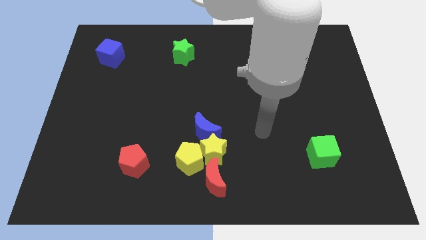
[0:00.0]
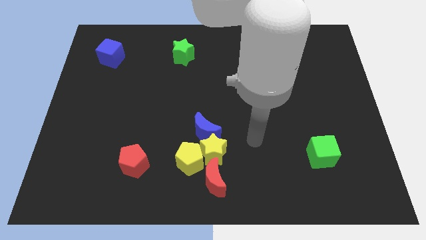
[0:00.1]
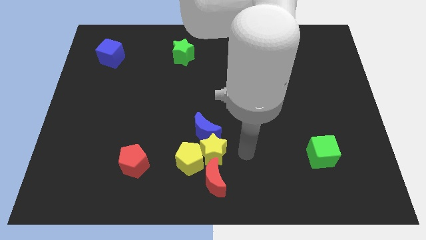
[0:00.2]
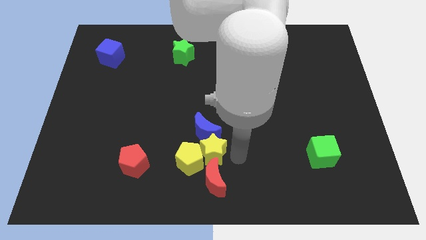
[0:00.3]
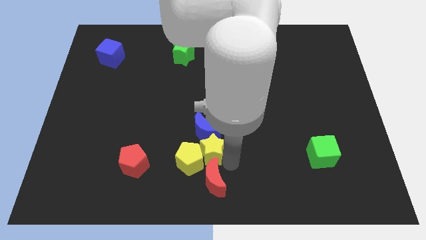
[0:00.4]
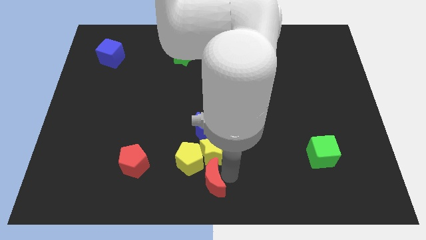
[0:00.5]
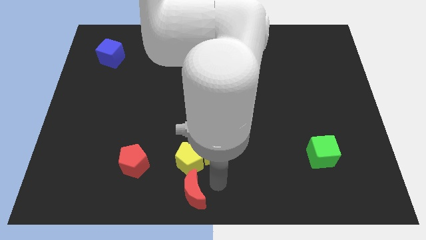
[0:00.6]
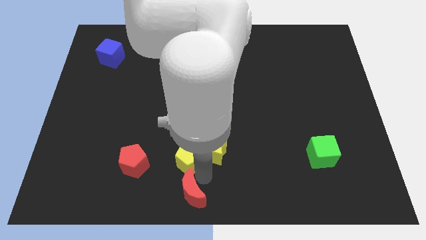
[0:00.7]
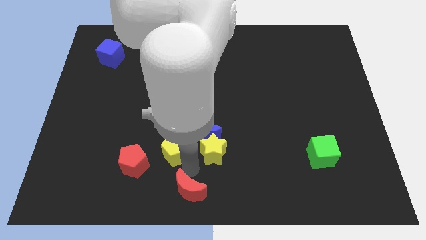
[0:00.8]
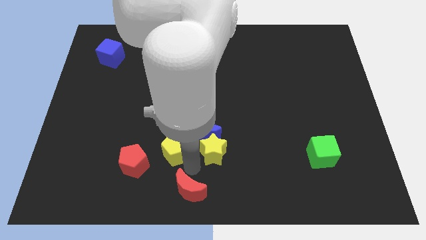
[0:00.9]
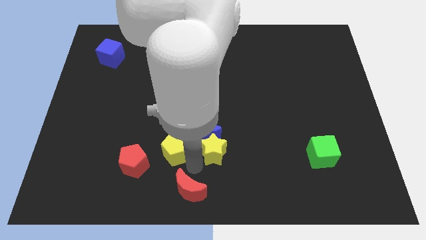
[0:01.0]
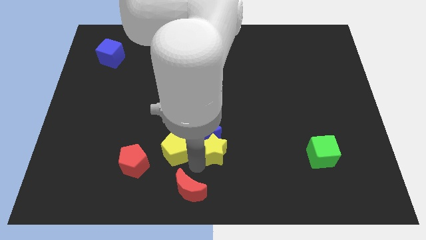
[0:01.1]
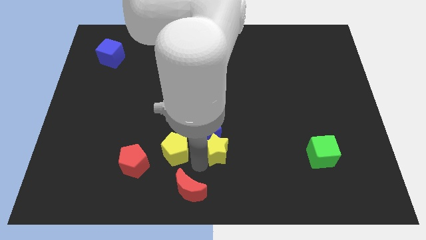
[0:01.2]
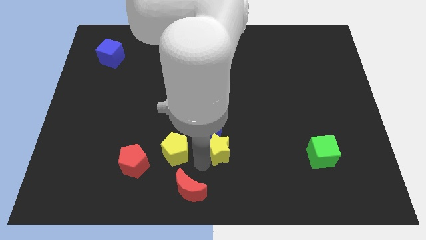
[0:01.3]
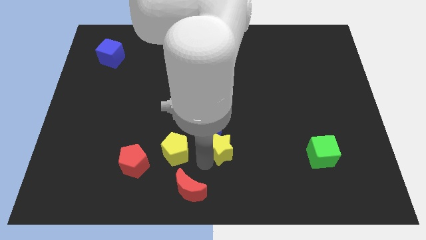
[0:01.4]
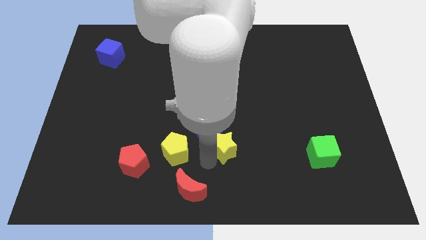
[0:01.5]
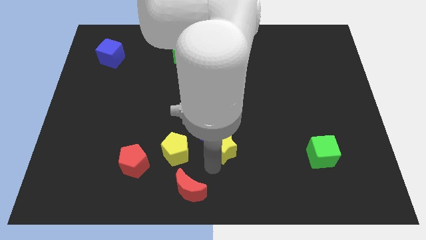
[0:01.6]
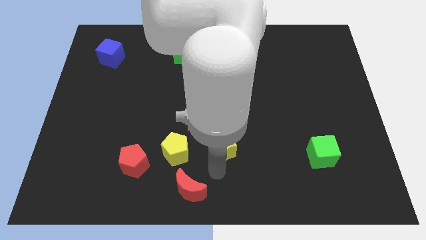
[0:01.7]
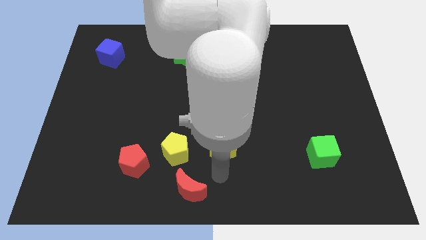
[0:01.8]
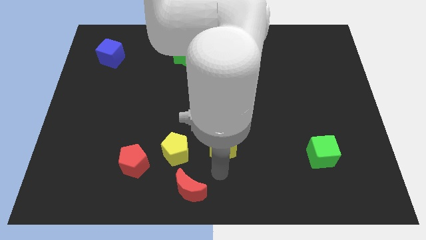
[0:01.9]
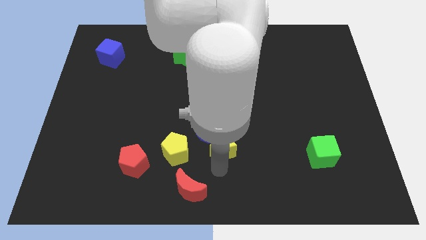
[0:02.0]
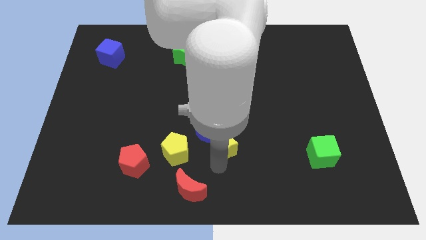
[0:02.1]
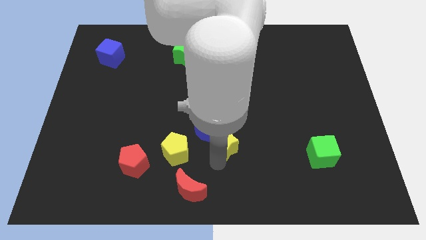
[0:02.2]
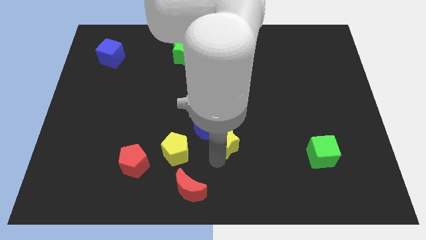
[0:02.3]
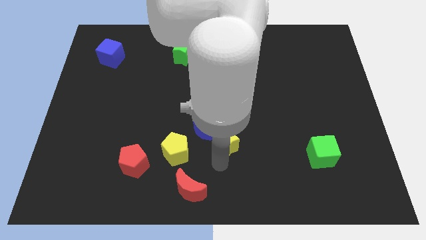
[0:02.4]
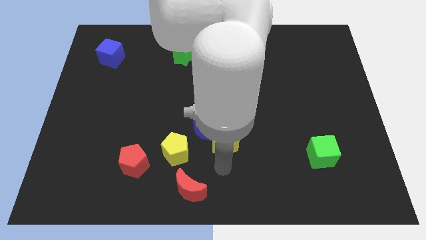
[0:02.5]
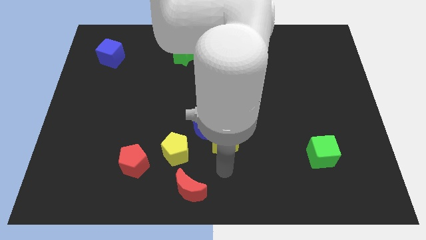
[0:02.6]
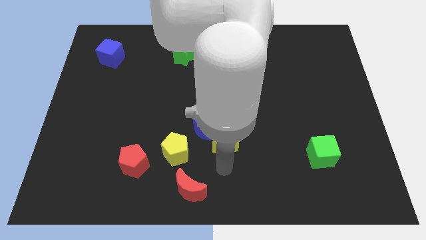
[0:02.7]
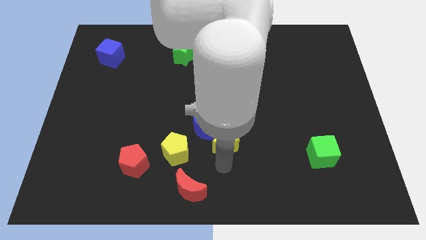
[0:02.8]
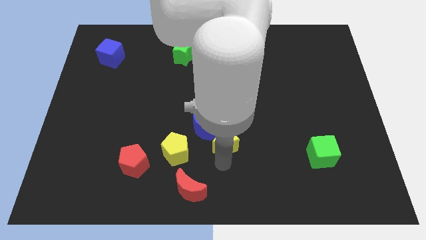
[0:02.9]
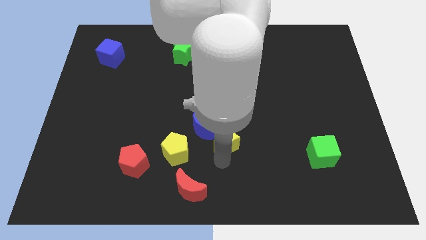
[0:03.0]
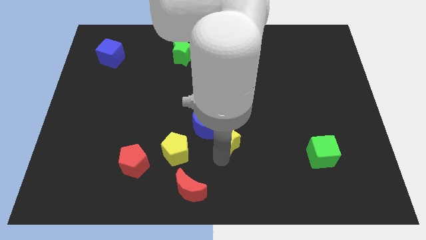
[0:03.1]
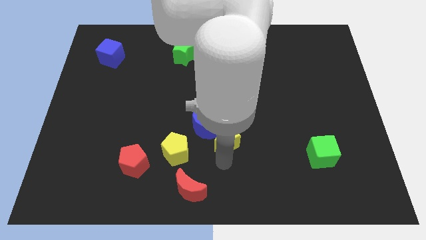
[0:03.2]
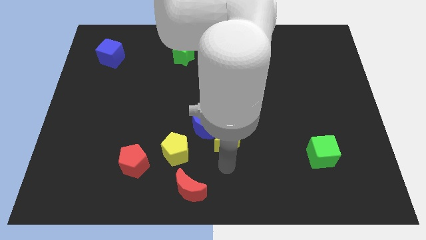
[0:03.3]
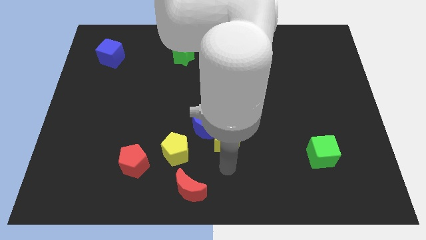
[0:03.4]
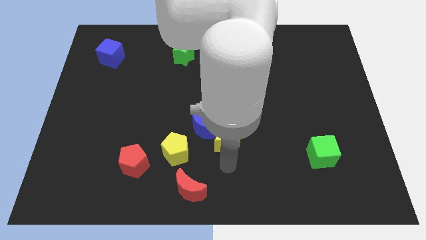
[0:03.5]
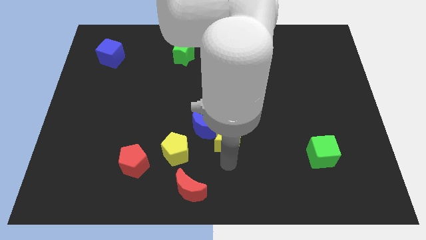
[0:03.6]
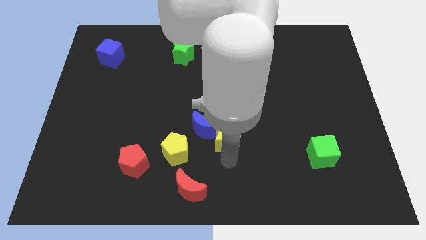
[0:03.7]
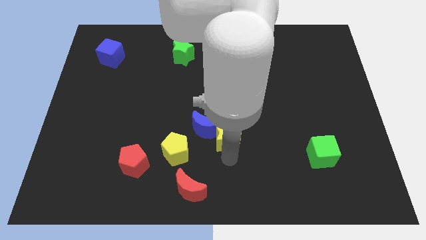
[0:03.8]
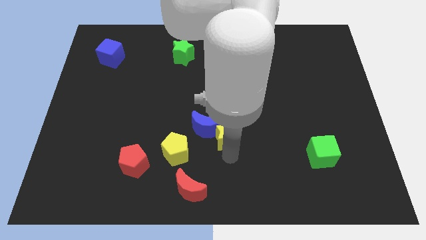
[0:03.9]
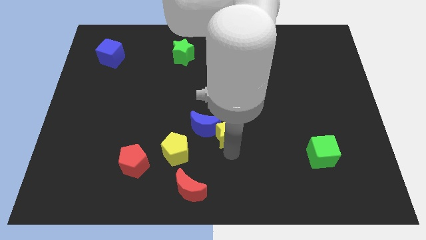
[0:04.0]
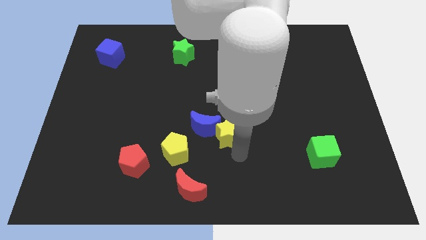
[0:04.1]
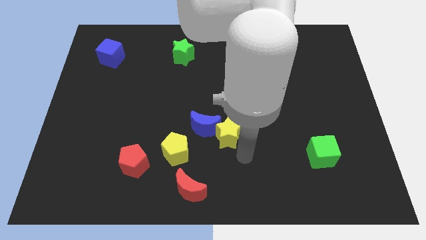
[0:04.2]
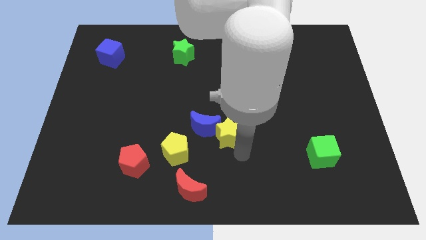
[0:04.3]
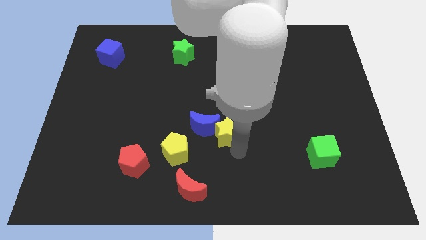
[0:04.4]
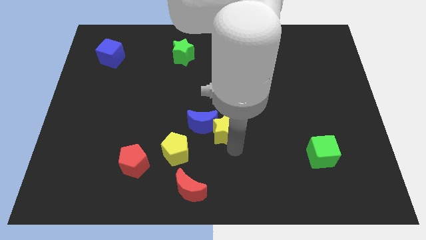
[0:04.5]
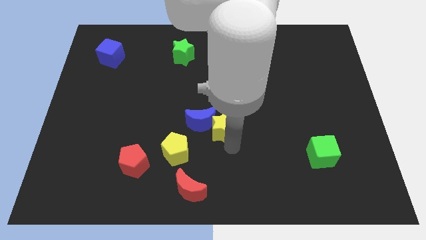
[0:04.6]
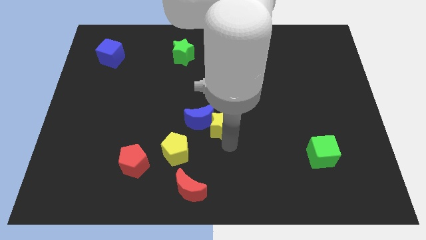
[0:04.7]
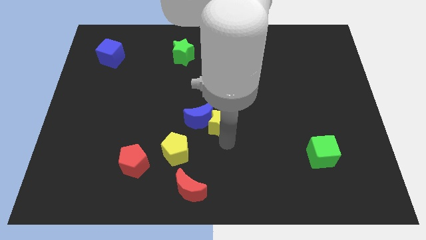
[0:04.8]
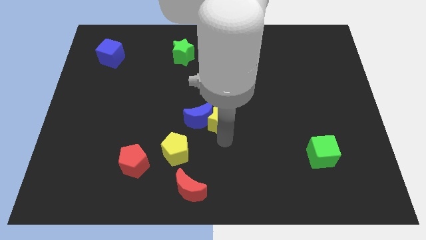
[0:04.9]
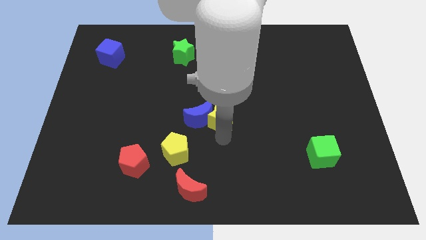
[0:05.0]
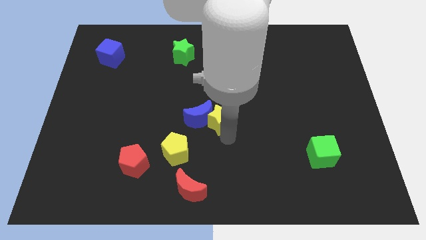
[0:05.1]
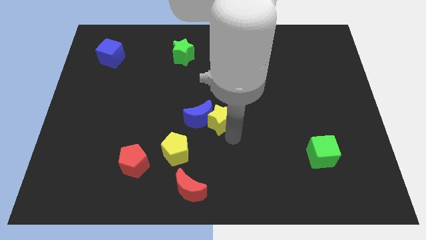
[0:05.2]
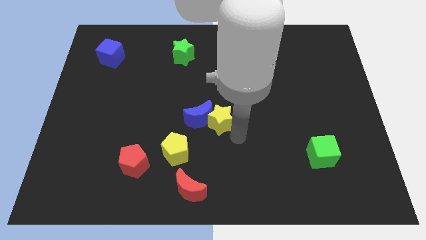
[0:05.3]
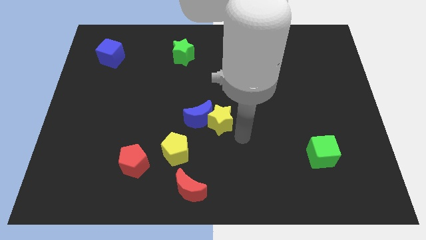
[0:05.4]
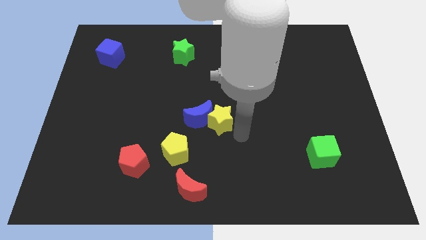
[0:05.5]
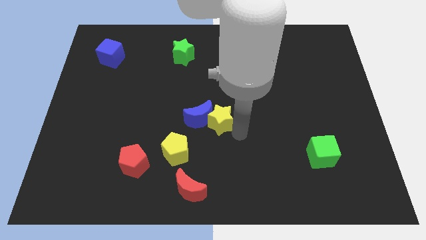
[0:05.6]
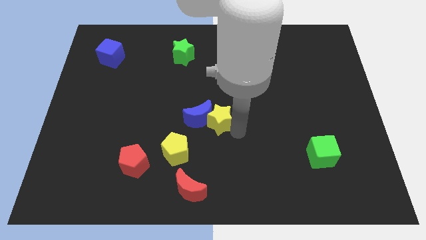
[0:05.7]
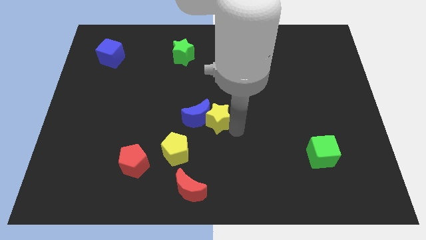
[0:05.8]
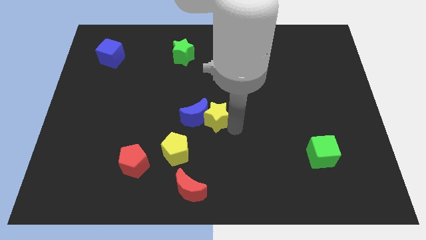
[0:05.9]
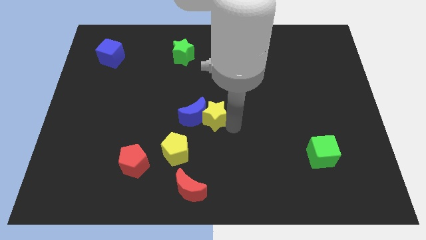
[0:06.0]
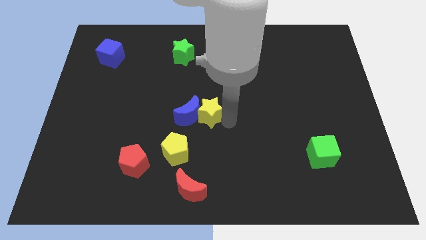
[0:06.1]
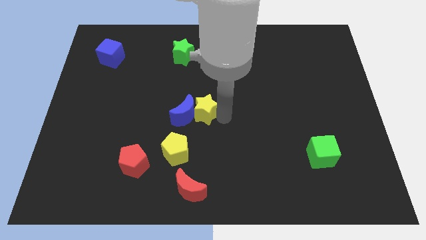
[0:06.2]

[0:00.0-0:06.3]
move the yellow star diagonally upwards and left a bit

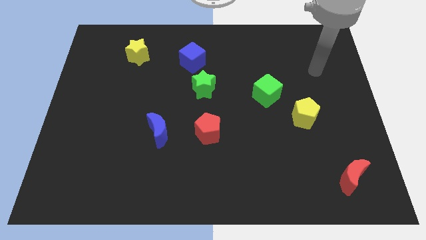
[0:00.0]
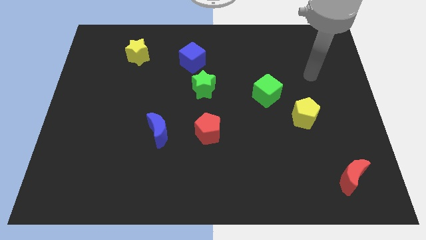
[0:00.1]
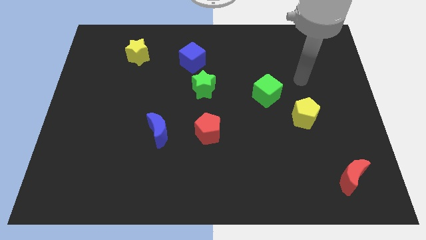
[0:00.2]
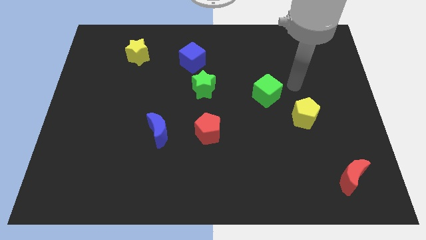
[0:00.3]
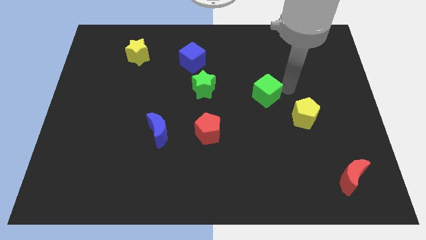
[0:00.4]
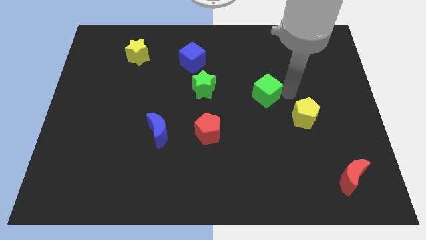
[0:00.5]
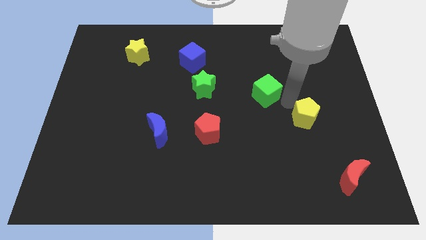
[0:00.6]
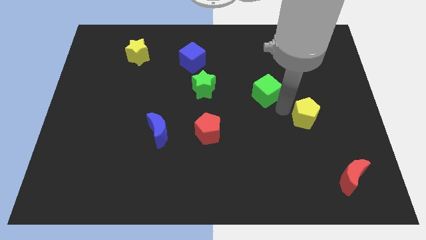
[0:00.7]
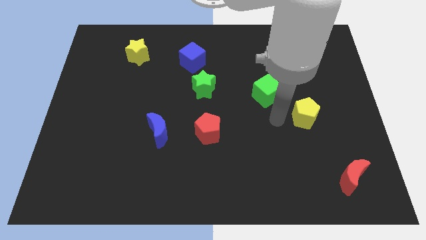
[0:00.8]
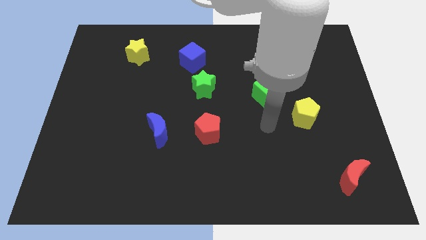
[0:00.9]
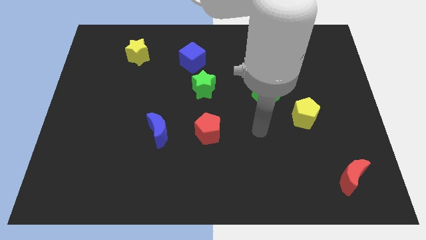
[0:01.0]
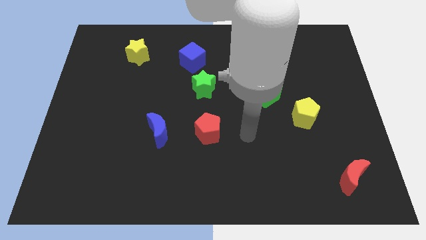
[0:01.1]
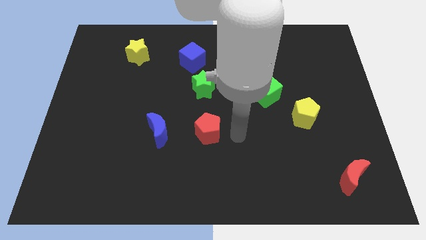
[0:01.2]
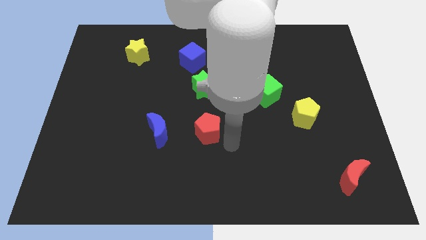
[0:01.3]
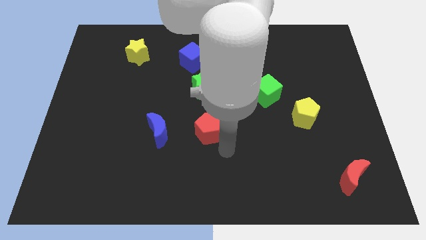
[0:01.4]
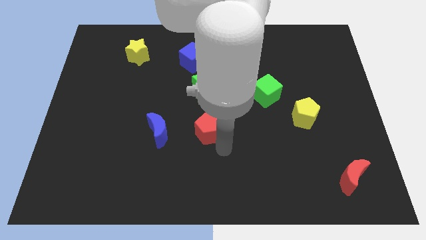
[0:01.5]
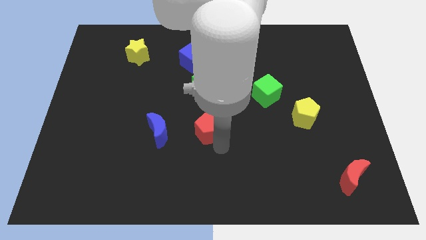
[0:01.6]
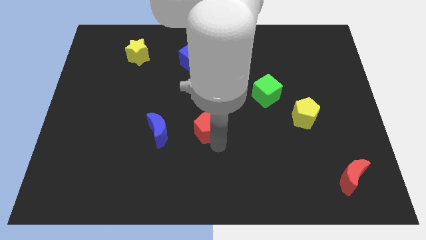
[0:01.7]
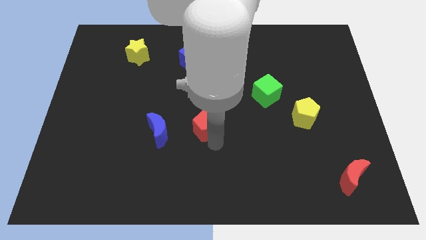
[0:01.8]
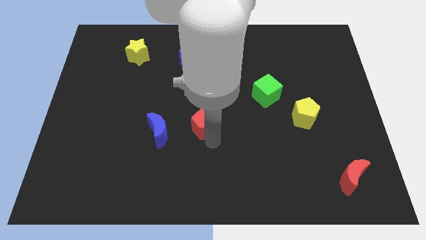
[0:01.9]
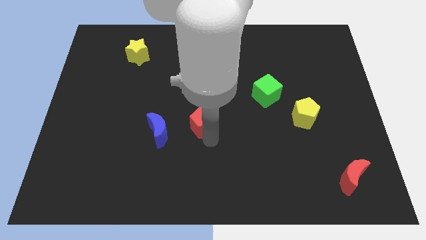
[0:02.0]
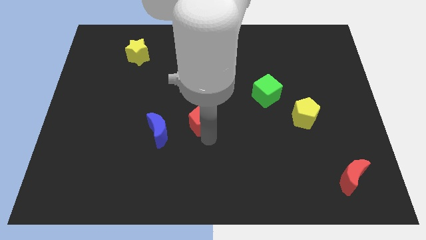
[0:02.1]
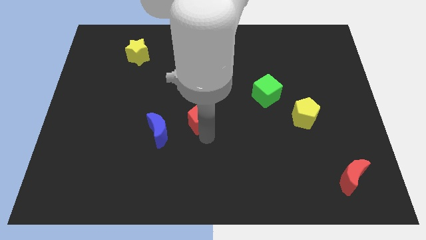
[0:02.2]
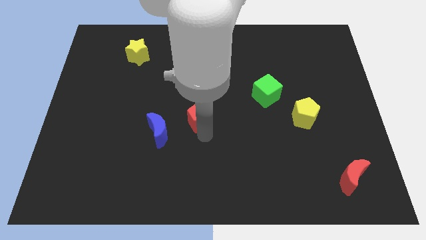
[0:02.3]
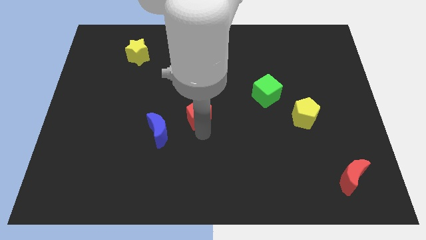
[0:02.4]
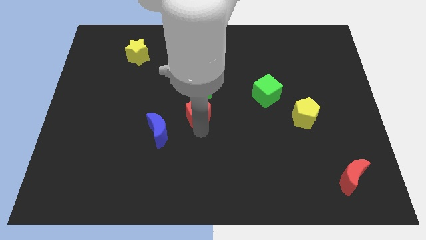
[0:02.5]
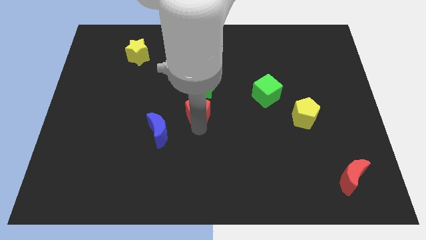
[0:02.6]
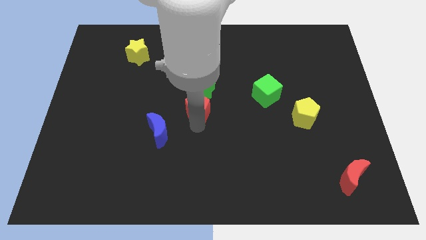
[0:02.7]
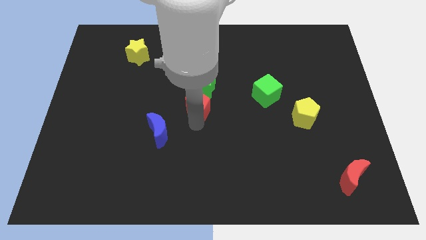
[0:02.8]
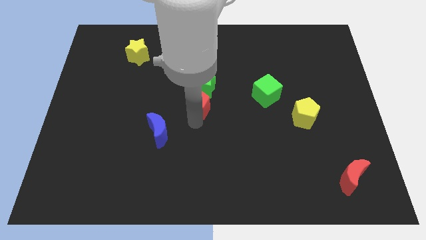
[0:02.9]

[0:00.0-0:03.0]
slightly slide the red pentagon up
